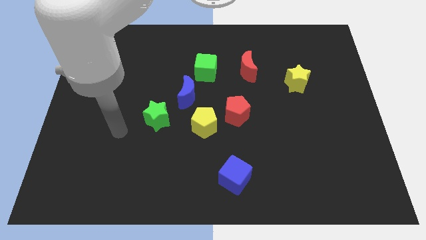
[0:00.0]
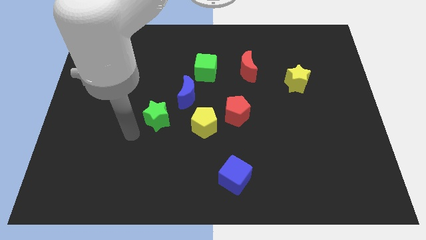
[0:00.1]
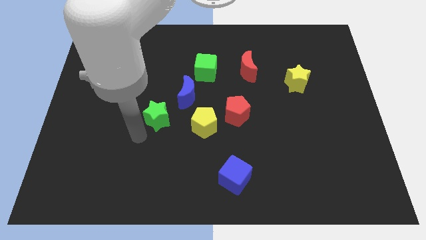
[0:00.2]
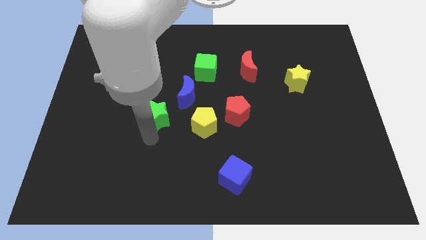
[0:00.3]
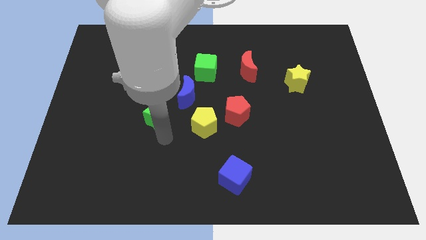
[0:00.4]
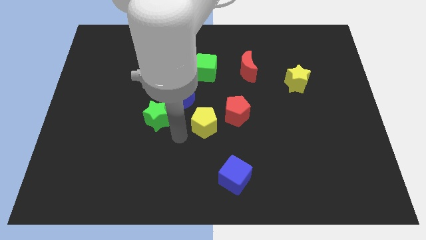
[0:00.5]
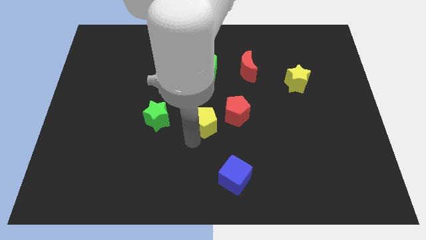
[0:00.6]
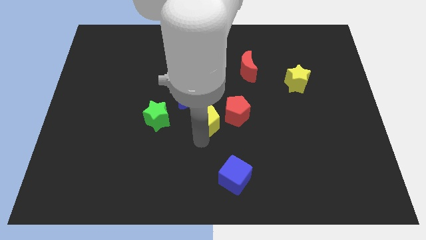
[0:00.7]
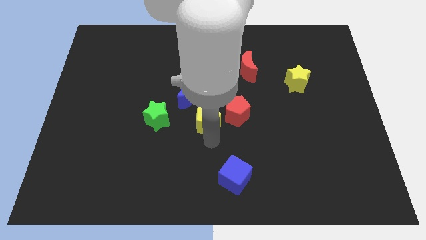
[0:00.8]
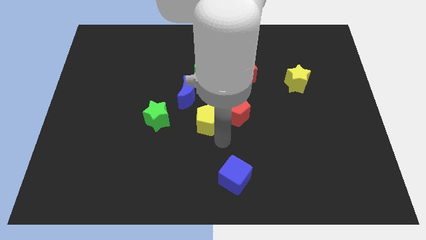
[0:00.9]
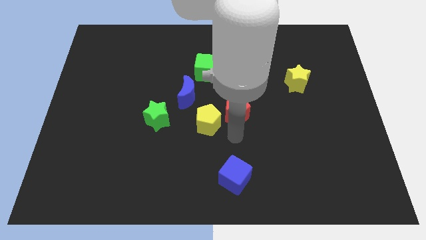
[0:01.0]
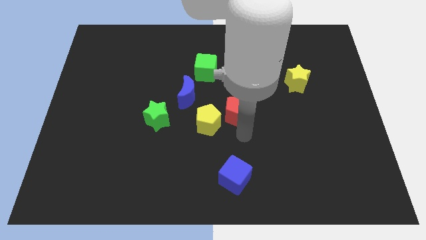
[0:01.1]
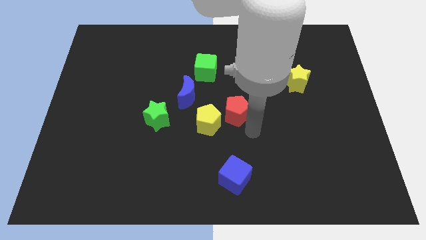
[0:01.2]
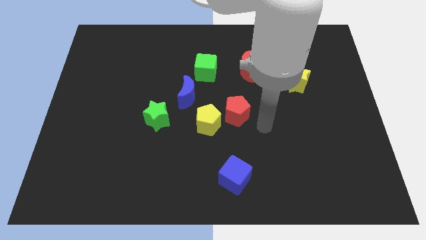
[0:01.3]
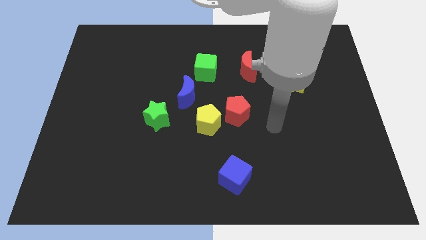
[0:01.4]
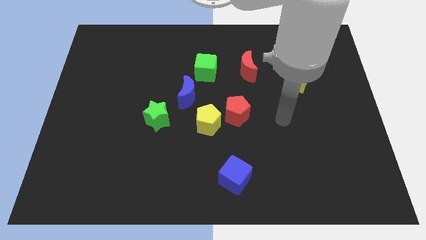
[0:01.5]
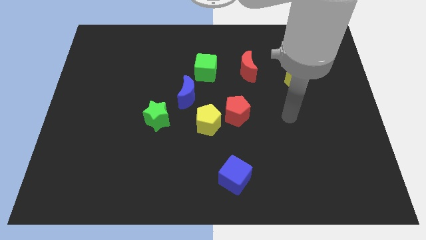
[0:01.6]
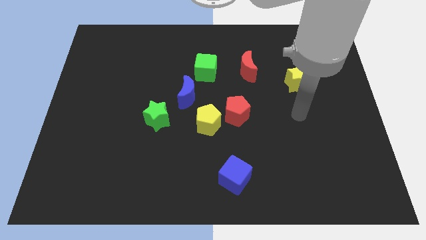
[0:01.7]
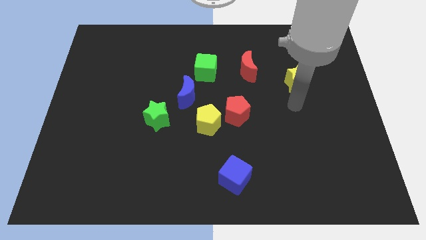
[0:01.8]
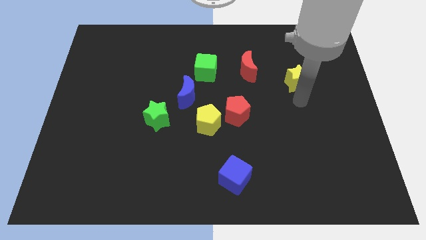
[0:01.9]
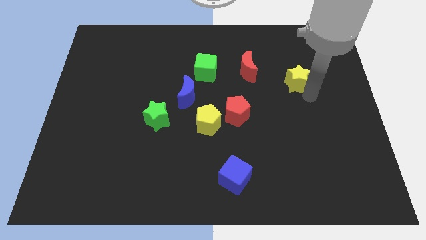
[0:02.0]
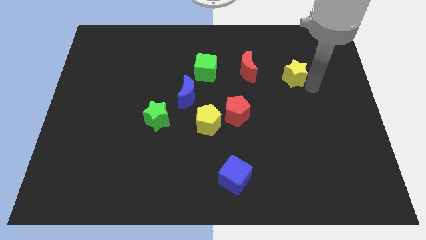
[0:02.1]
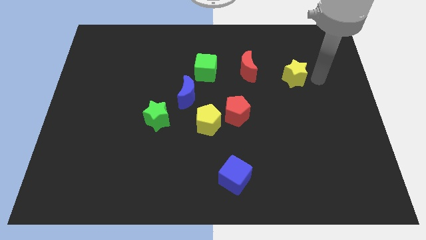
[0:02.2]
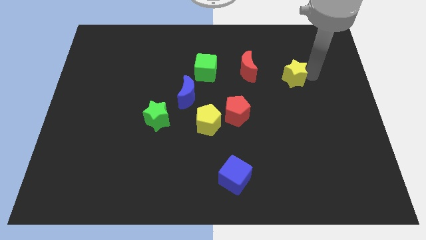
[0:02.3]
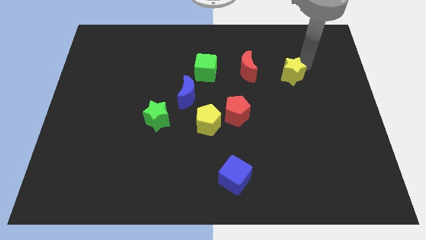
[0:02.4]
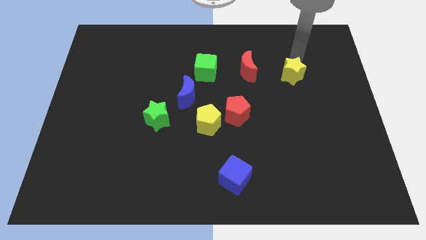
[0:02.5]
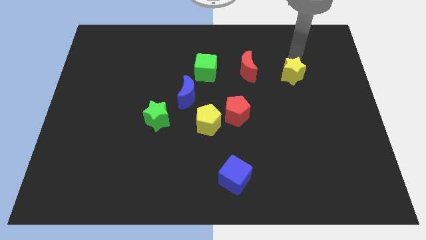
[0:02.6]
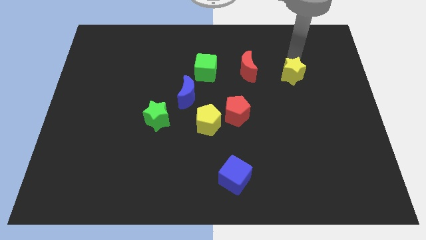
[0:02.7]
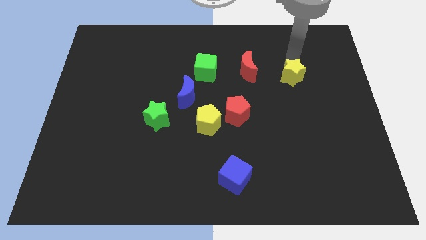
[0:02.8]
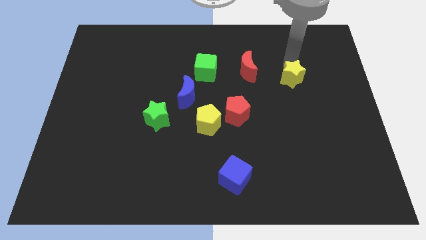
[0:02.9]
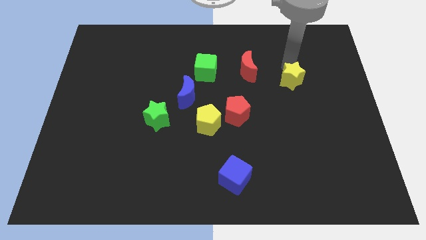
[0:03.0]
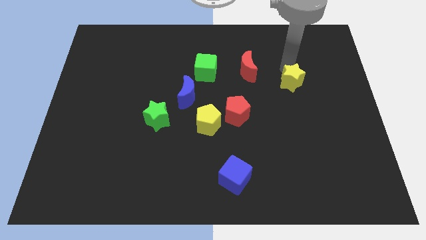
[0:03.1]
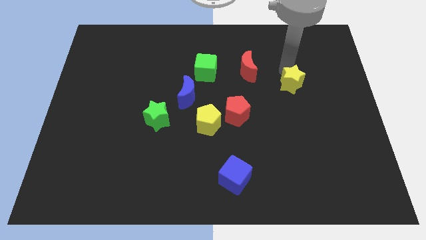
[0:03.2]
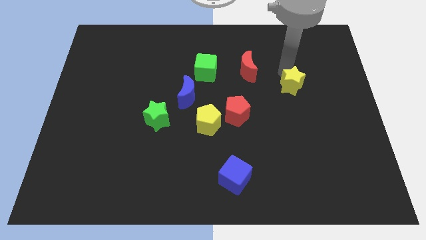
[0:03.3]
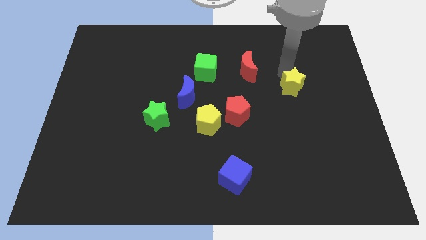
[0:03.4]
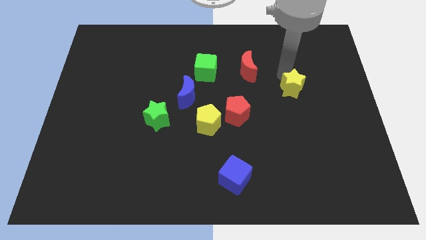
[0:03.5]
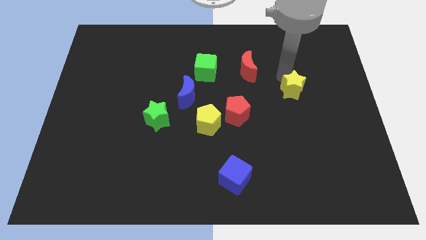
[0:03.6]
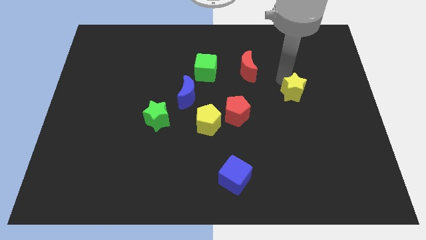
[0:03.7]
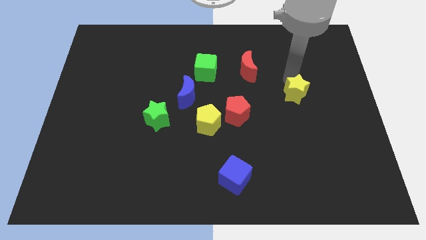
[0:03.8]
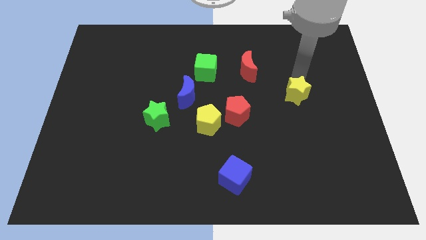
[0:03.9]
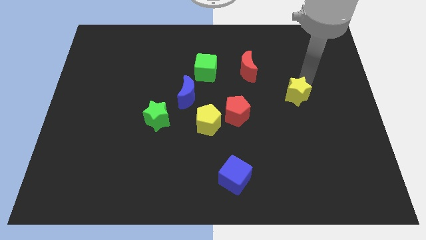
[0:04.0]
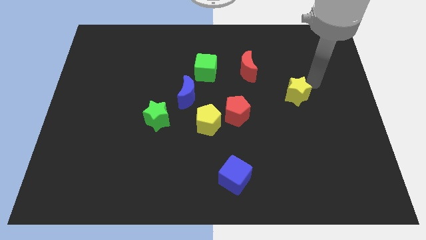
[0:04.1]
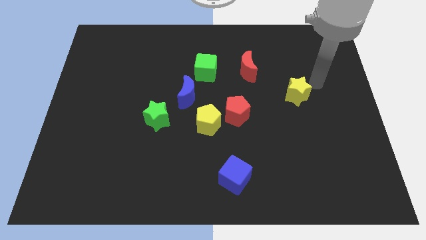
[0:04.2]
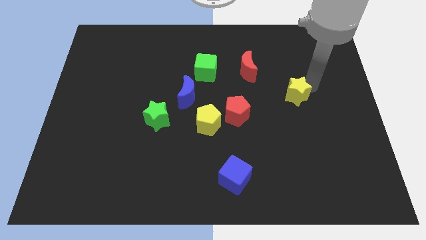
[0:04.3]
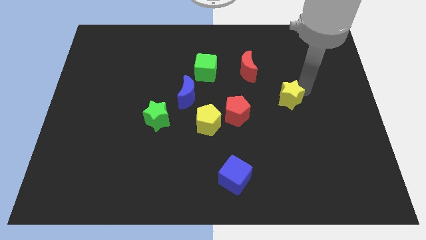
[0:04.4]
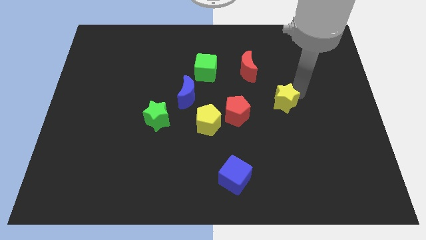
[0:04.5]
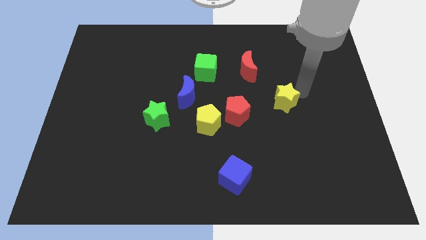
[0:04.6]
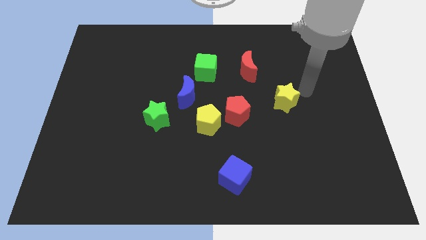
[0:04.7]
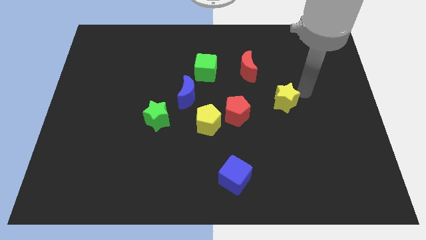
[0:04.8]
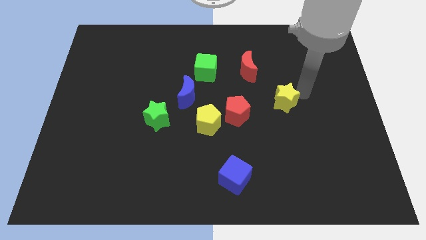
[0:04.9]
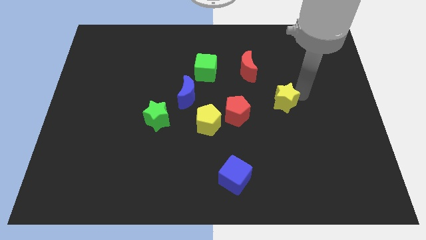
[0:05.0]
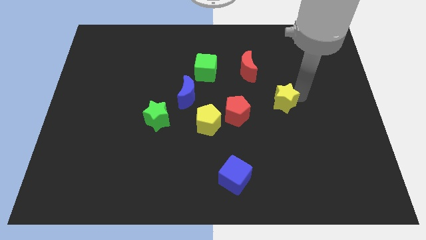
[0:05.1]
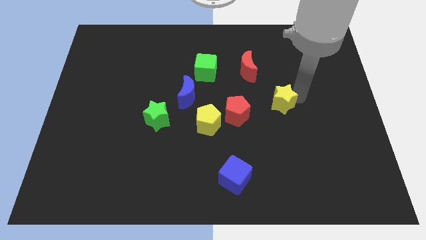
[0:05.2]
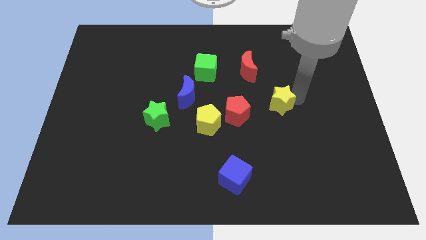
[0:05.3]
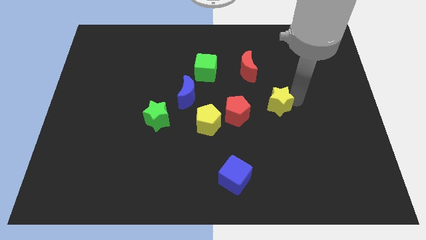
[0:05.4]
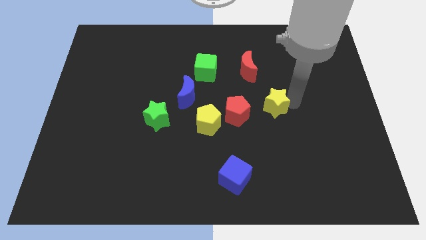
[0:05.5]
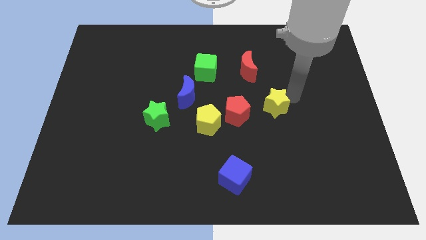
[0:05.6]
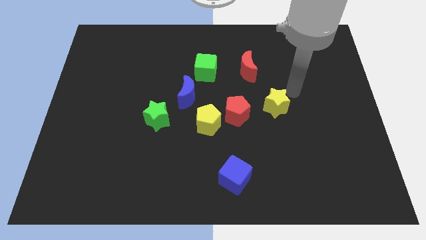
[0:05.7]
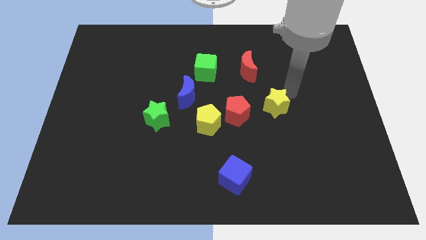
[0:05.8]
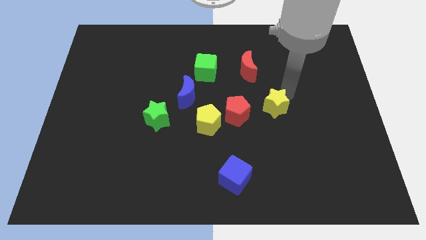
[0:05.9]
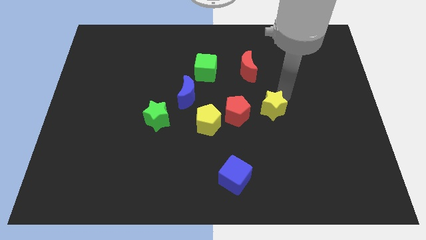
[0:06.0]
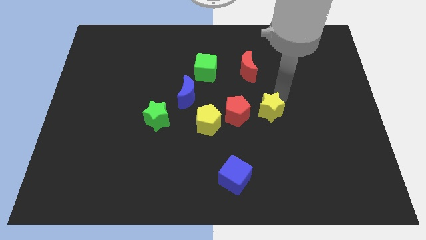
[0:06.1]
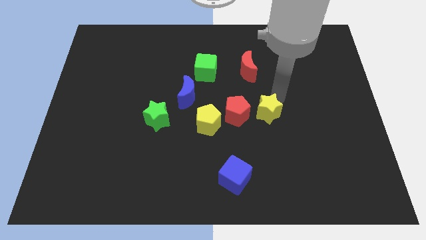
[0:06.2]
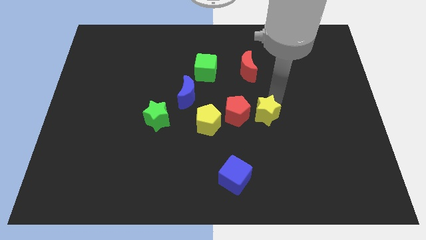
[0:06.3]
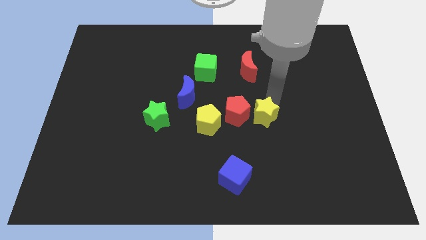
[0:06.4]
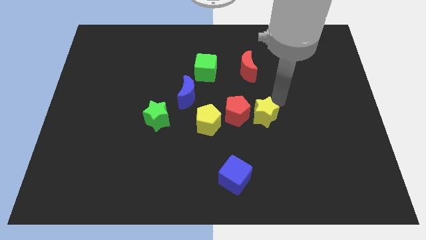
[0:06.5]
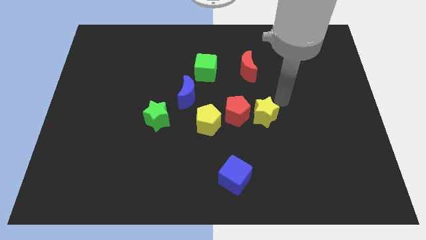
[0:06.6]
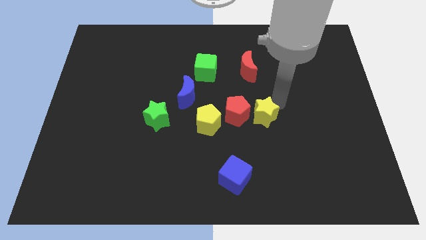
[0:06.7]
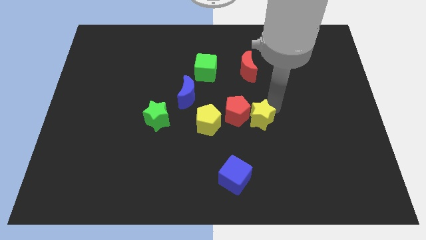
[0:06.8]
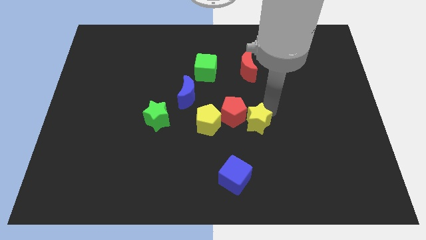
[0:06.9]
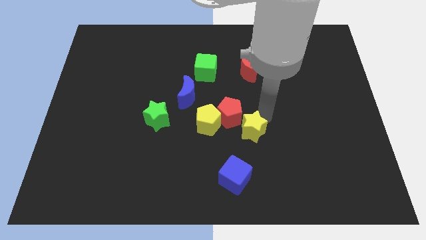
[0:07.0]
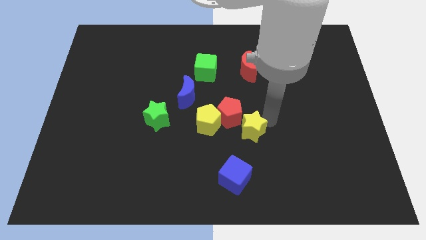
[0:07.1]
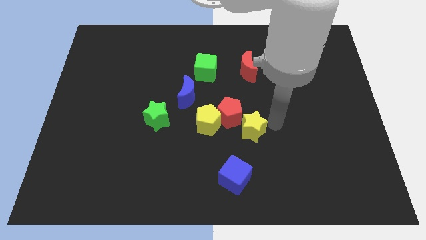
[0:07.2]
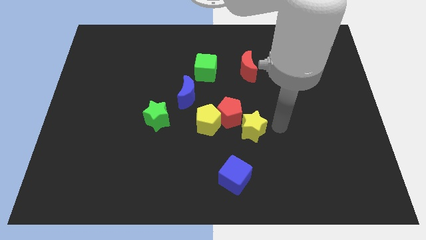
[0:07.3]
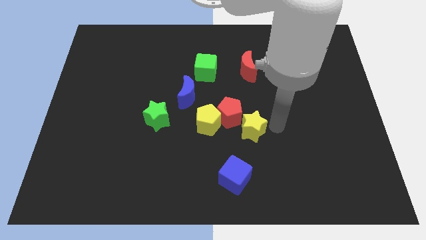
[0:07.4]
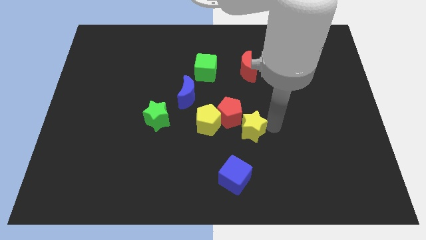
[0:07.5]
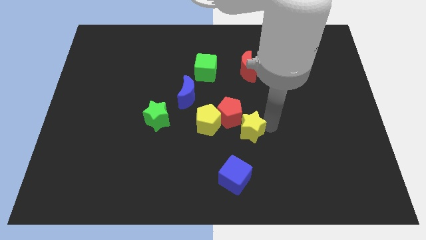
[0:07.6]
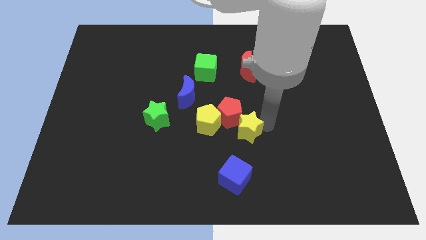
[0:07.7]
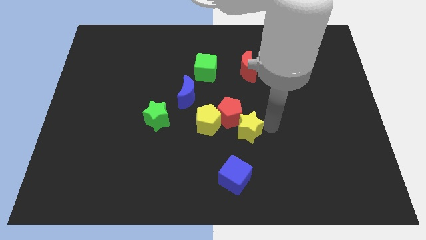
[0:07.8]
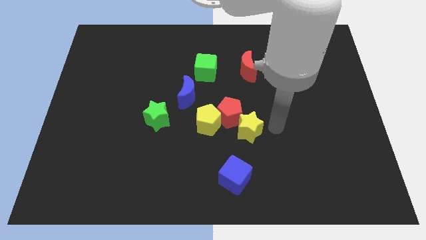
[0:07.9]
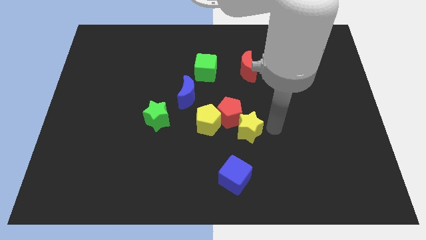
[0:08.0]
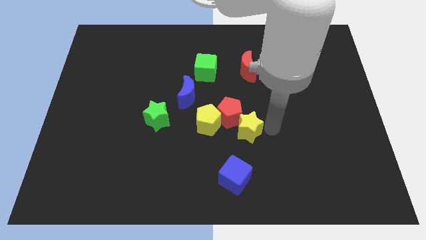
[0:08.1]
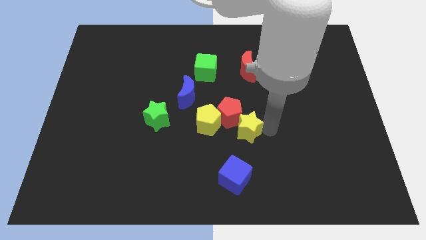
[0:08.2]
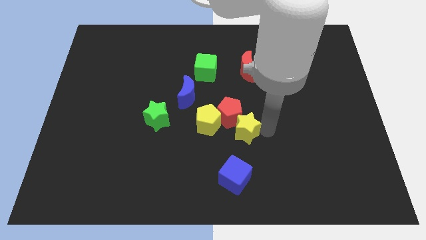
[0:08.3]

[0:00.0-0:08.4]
push the yellow star down and then to the left
